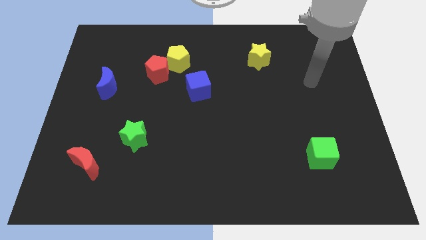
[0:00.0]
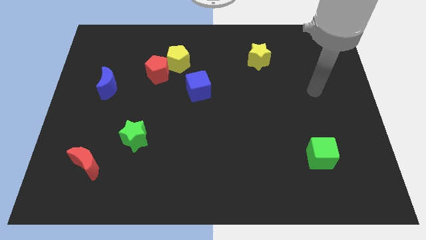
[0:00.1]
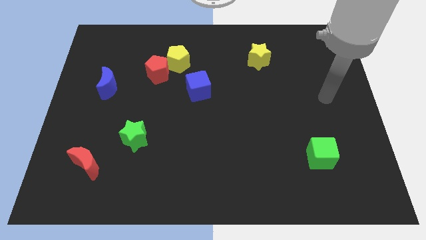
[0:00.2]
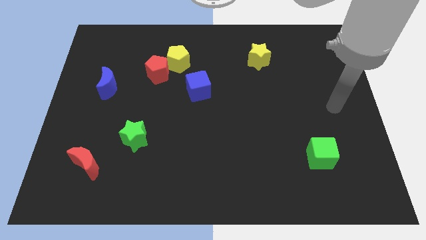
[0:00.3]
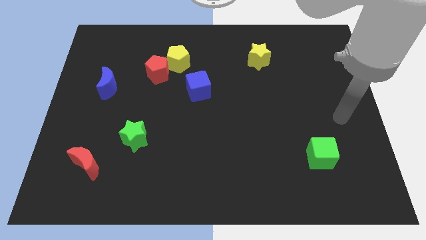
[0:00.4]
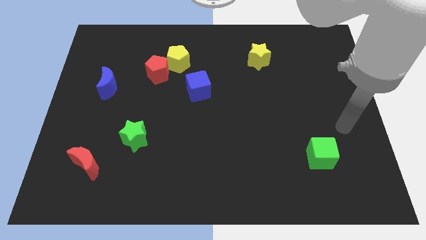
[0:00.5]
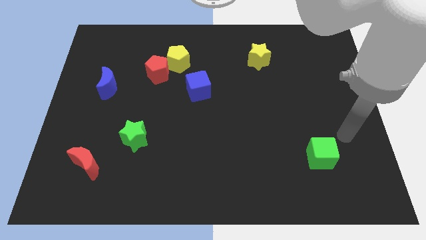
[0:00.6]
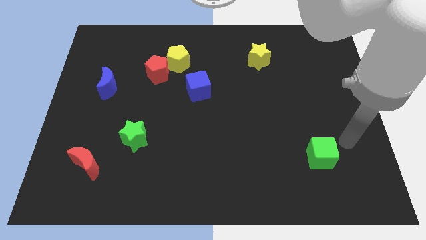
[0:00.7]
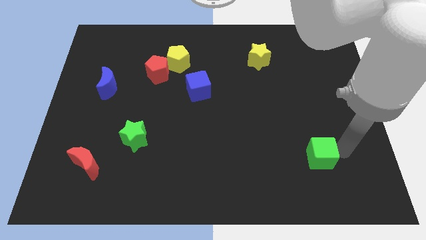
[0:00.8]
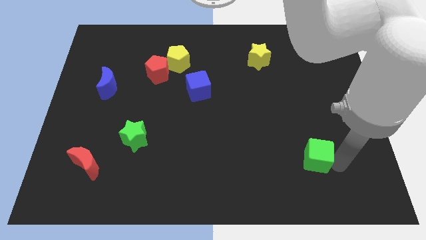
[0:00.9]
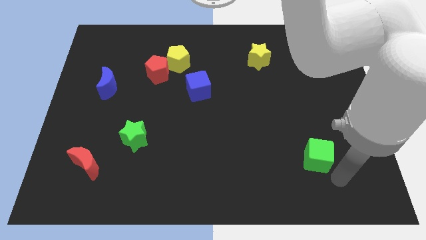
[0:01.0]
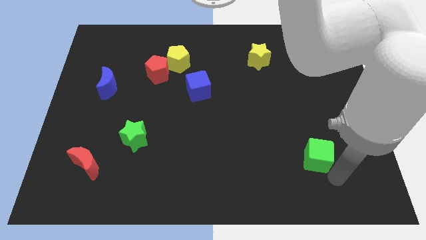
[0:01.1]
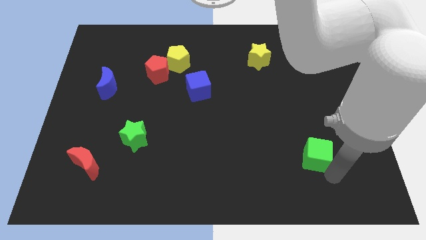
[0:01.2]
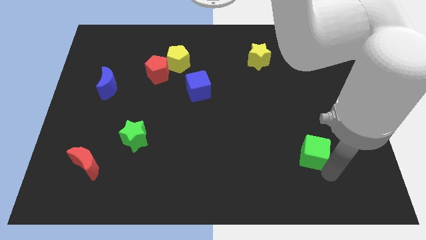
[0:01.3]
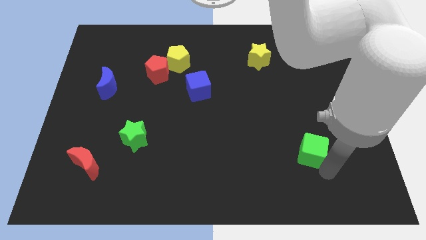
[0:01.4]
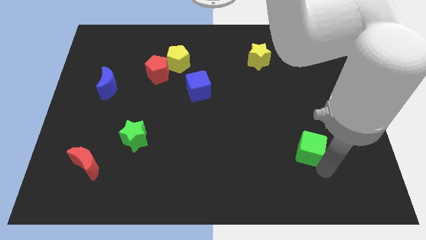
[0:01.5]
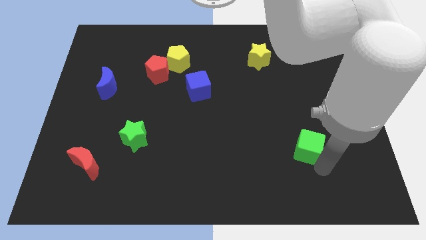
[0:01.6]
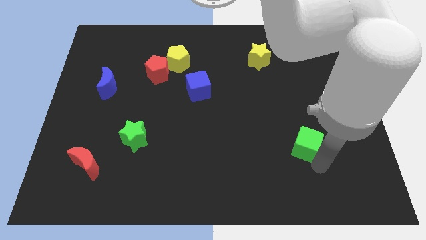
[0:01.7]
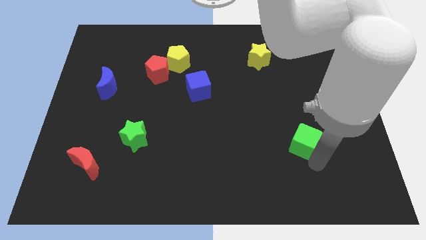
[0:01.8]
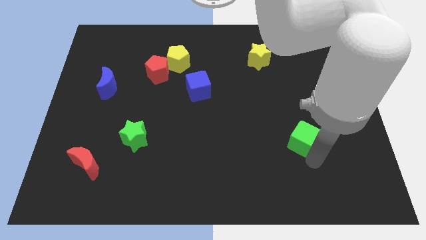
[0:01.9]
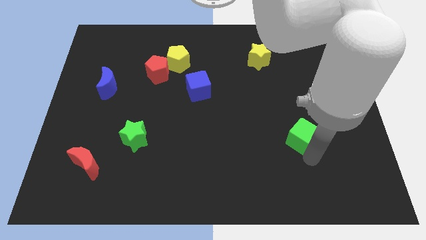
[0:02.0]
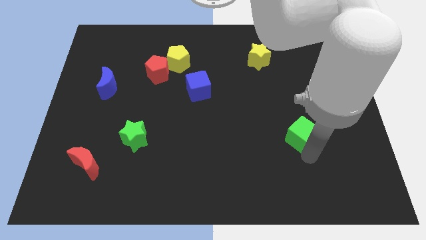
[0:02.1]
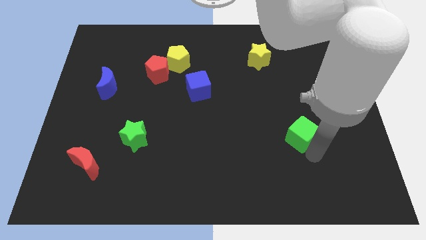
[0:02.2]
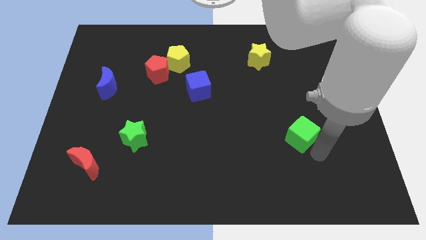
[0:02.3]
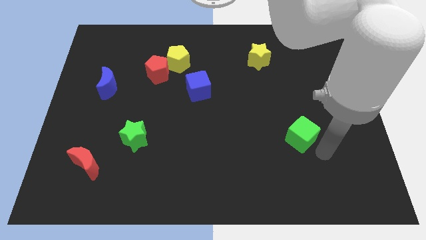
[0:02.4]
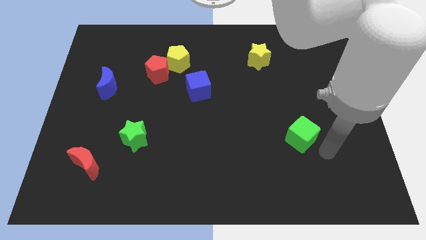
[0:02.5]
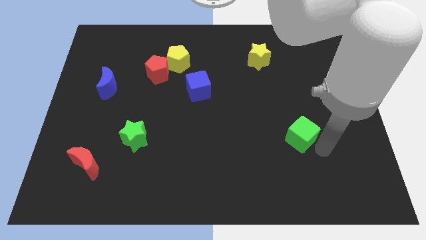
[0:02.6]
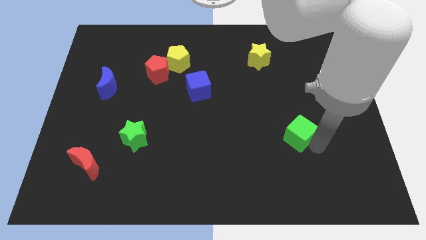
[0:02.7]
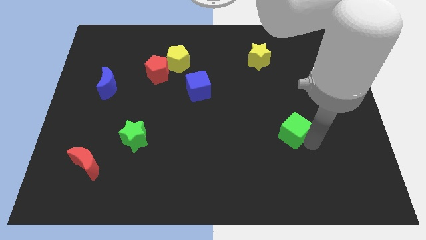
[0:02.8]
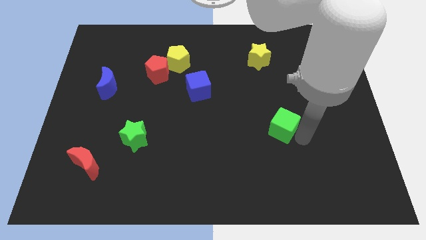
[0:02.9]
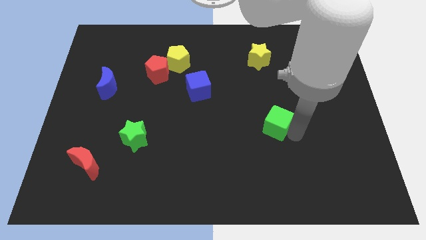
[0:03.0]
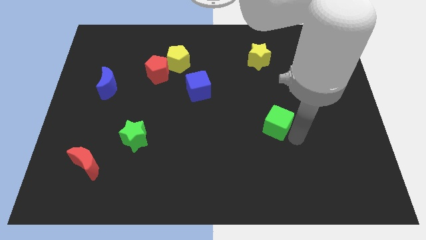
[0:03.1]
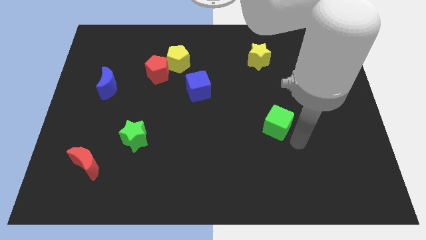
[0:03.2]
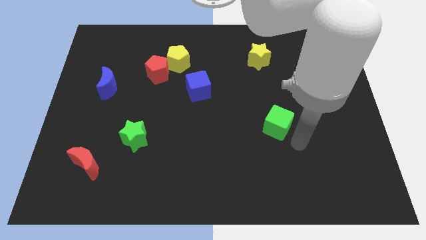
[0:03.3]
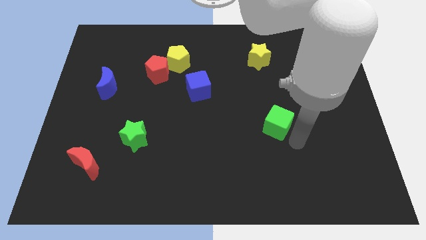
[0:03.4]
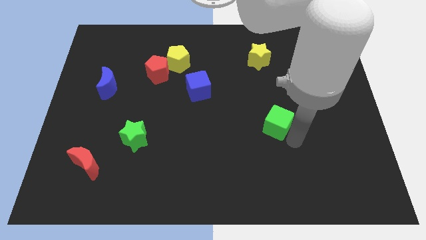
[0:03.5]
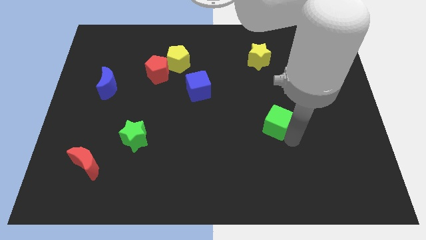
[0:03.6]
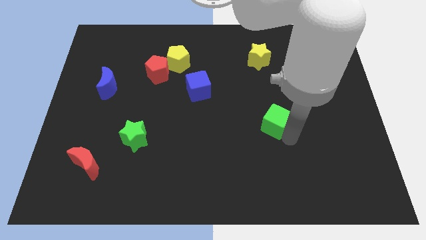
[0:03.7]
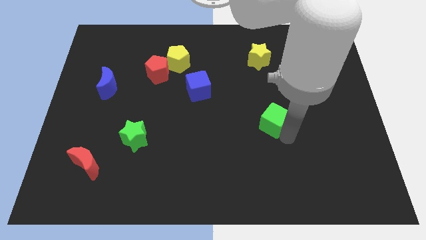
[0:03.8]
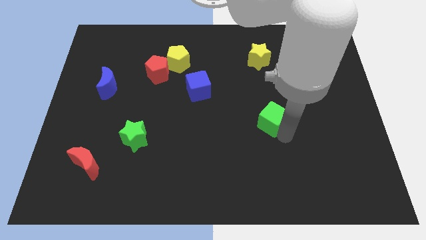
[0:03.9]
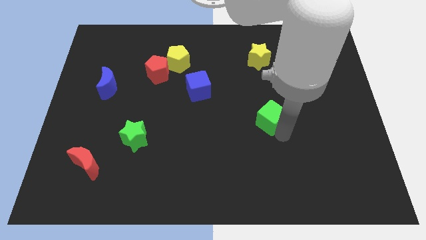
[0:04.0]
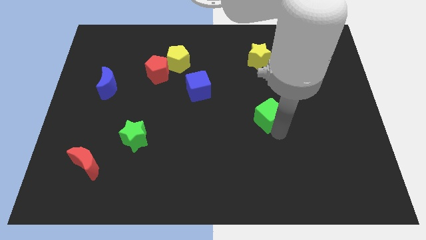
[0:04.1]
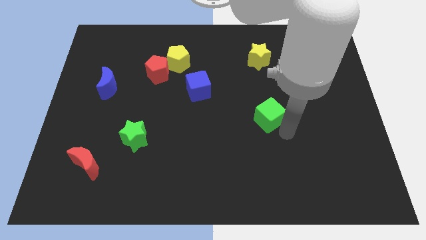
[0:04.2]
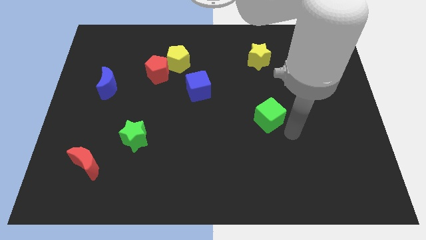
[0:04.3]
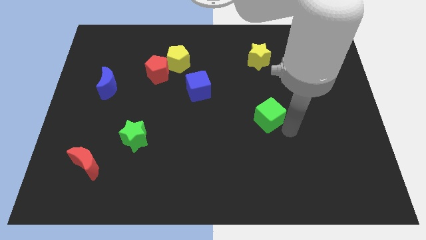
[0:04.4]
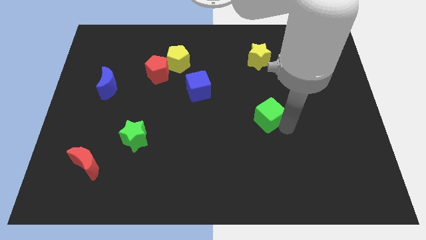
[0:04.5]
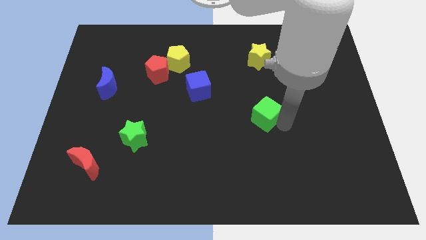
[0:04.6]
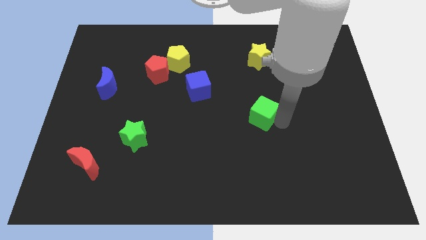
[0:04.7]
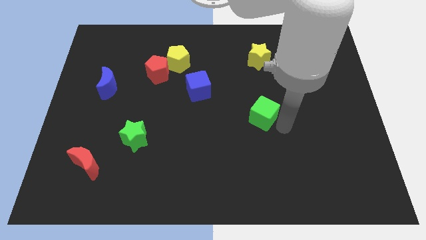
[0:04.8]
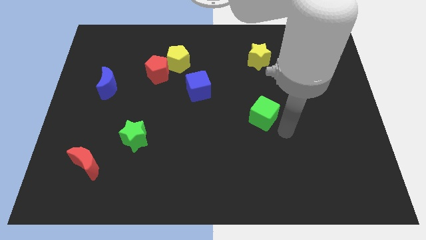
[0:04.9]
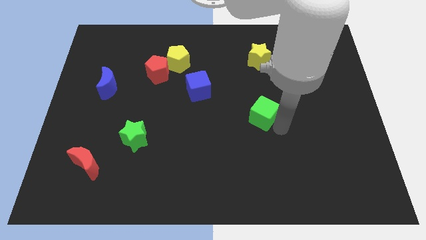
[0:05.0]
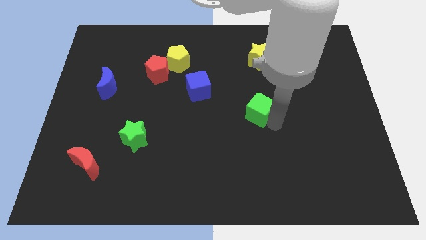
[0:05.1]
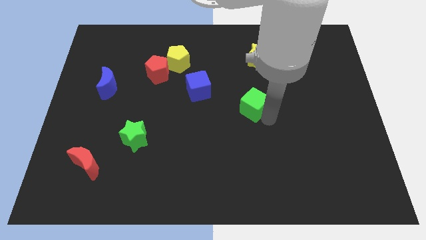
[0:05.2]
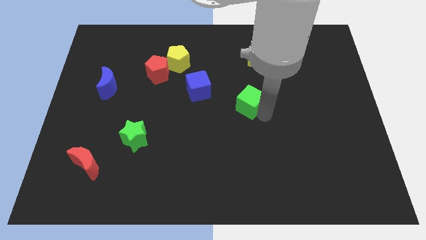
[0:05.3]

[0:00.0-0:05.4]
slide the green cube upwards and then left

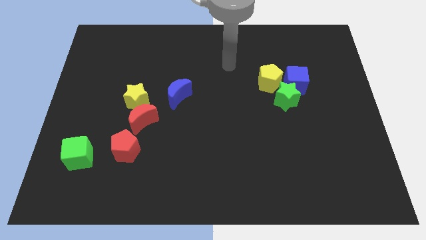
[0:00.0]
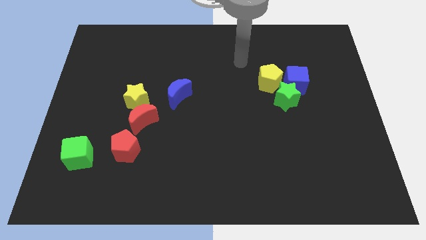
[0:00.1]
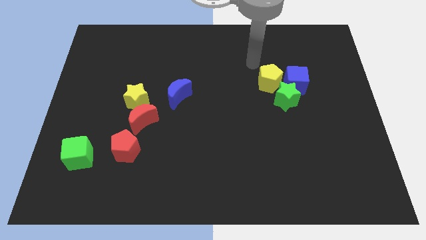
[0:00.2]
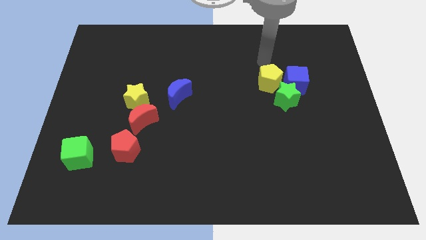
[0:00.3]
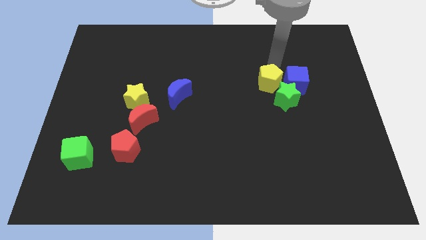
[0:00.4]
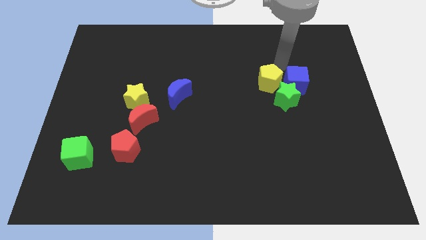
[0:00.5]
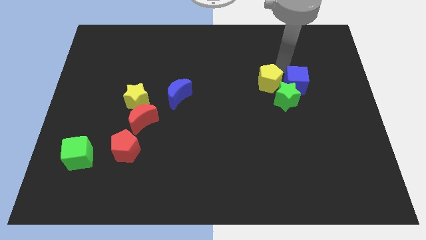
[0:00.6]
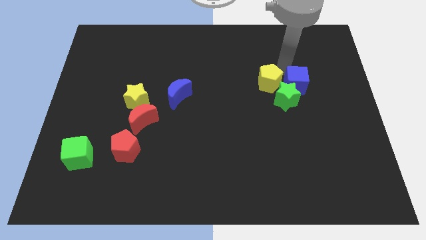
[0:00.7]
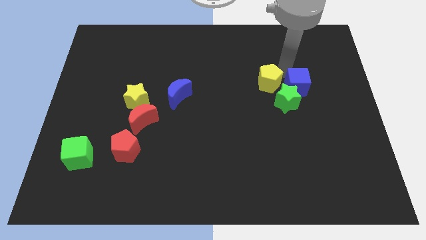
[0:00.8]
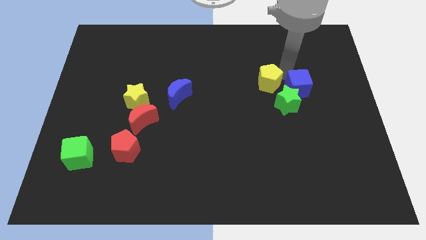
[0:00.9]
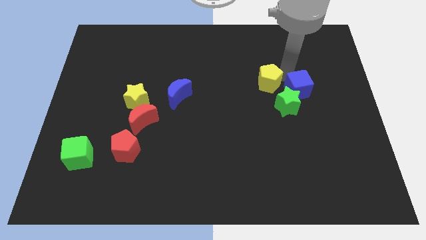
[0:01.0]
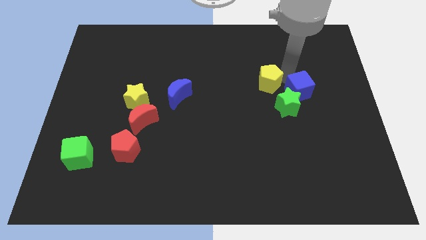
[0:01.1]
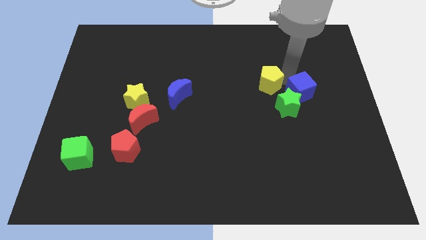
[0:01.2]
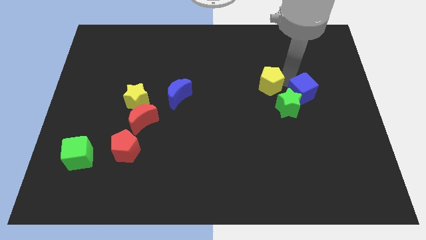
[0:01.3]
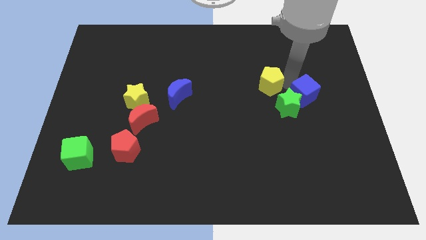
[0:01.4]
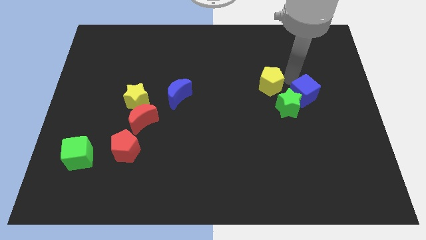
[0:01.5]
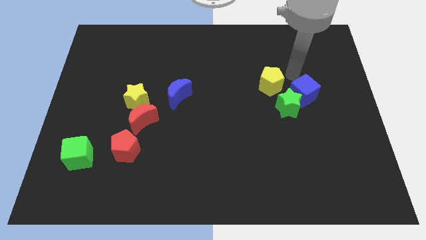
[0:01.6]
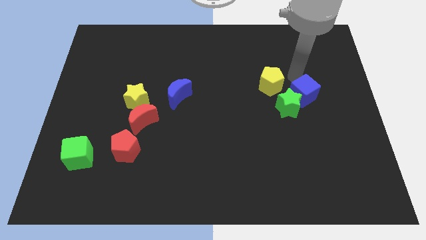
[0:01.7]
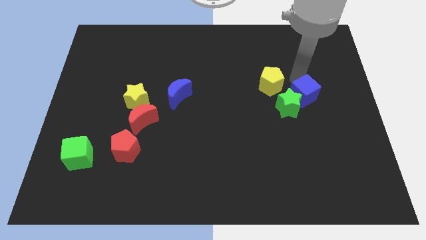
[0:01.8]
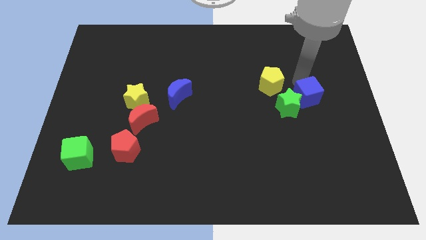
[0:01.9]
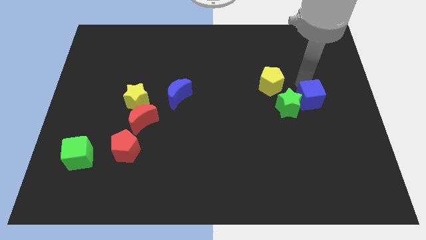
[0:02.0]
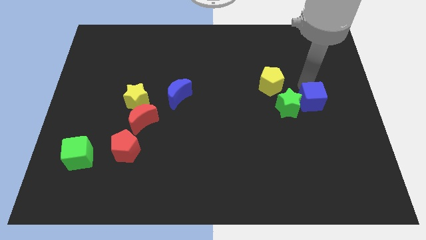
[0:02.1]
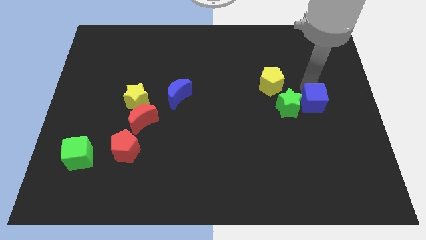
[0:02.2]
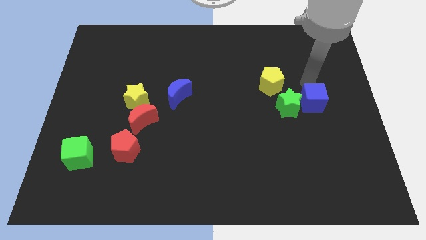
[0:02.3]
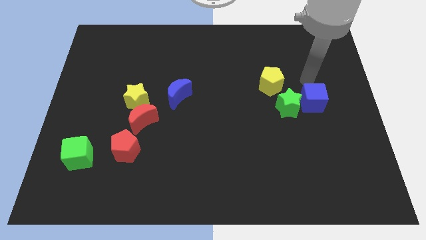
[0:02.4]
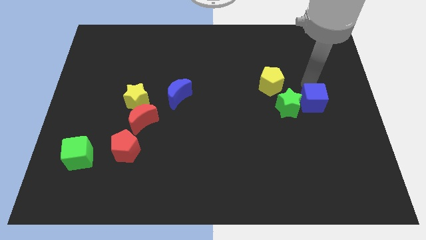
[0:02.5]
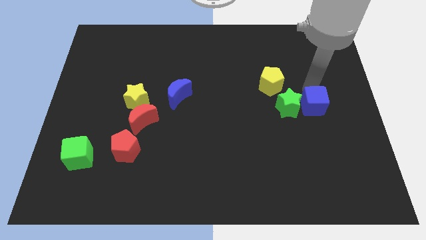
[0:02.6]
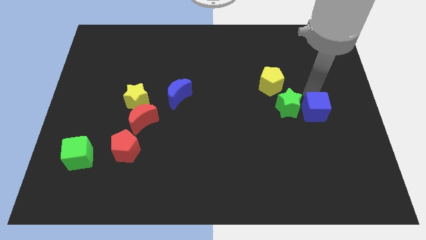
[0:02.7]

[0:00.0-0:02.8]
push the blue cube a little down

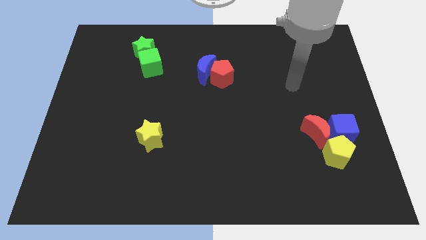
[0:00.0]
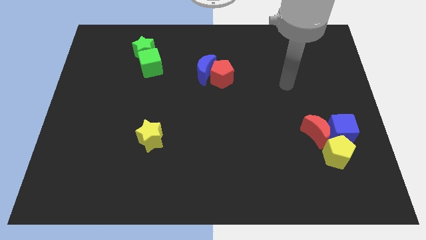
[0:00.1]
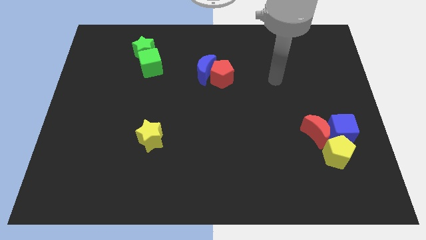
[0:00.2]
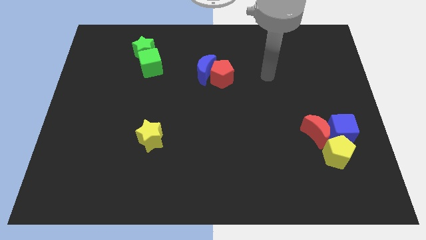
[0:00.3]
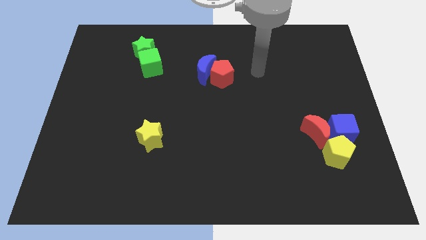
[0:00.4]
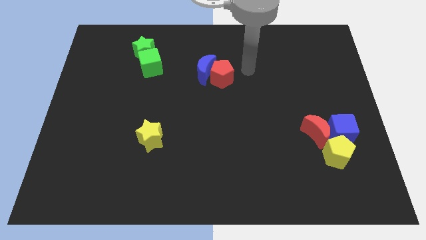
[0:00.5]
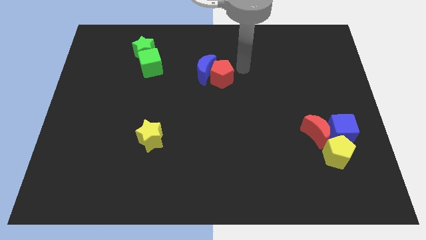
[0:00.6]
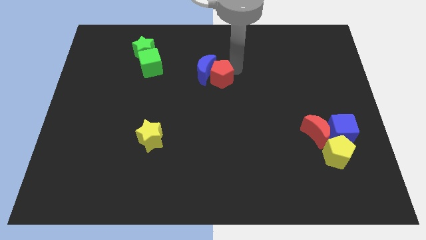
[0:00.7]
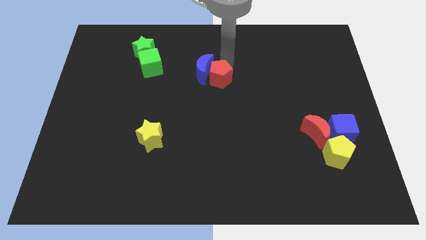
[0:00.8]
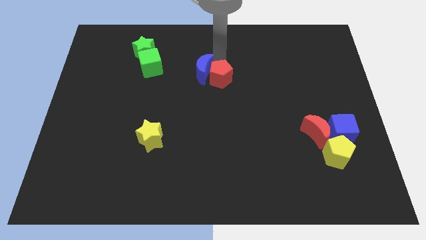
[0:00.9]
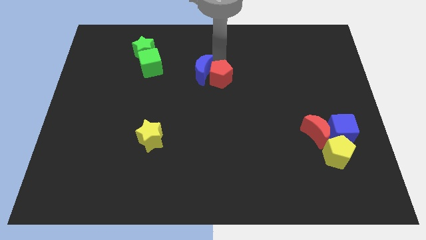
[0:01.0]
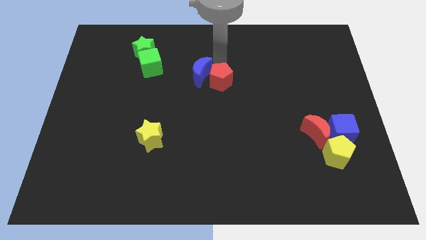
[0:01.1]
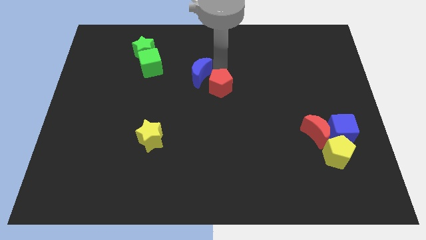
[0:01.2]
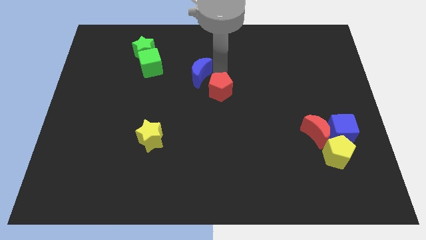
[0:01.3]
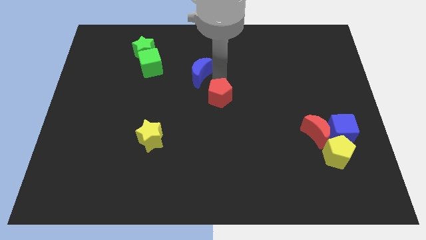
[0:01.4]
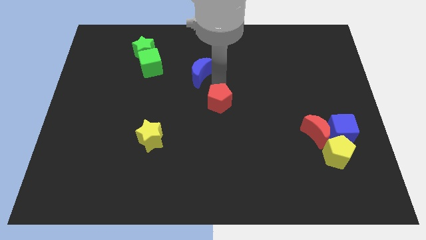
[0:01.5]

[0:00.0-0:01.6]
slightly move the red pentagon down
